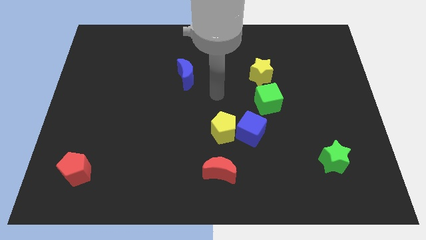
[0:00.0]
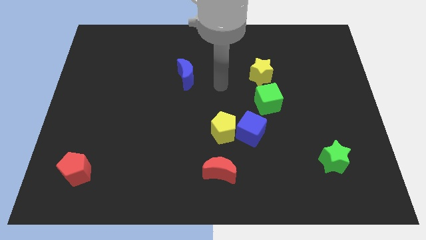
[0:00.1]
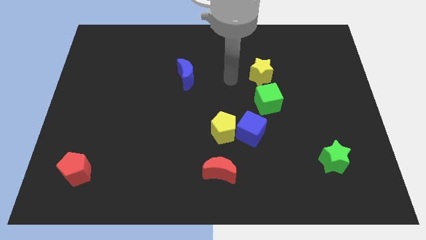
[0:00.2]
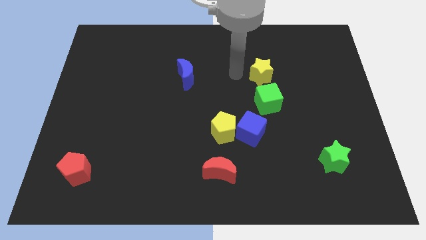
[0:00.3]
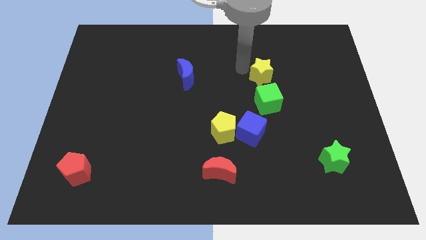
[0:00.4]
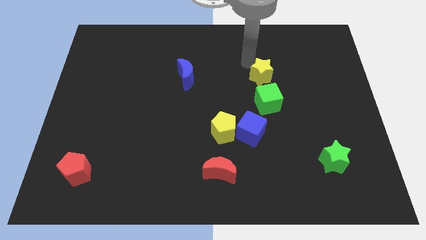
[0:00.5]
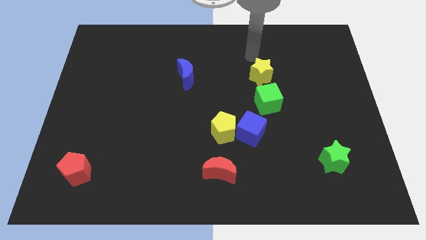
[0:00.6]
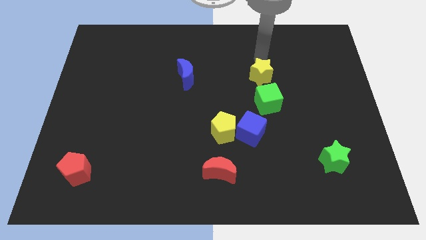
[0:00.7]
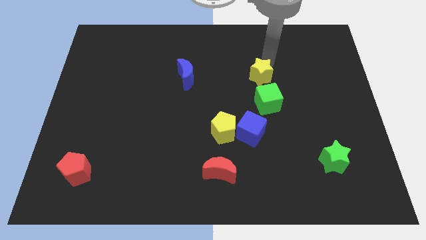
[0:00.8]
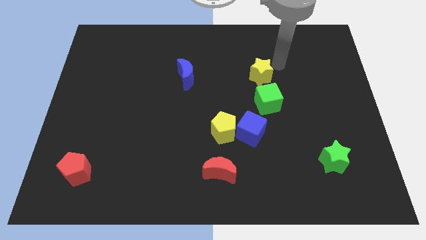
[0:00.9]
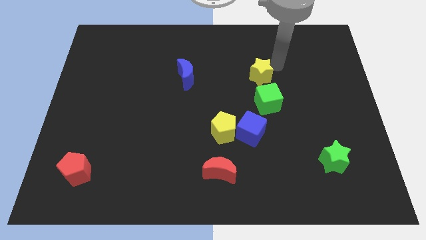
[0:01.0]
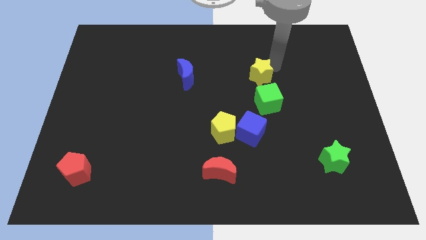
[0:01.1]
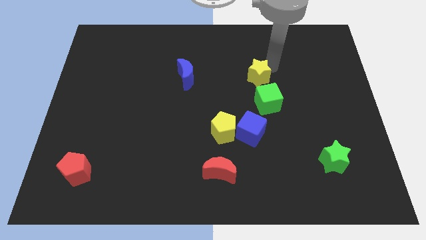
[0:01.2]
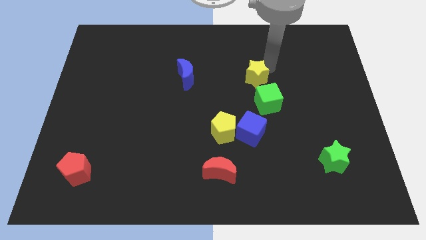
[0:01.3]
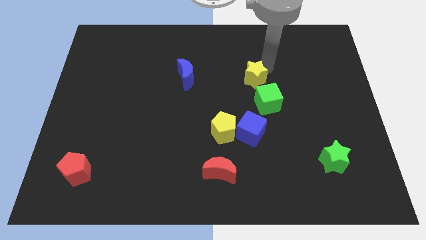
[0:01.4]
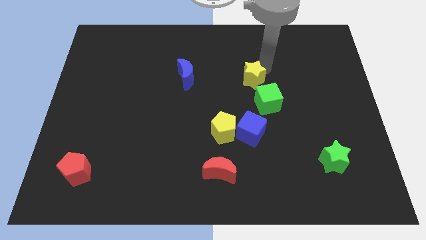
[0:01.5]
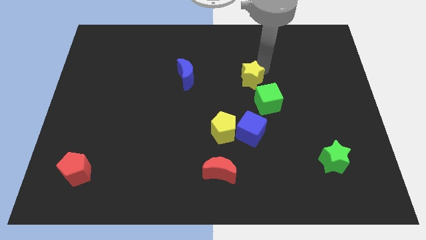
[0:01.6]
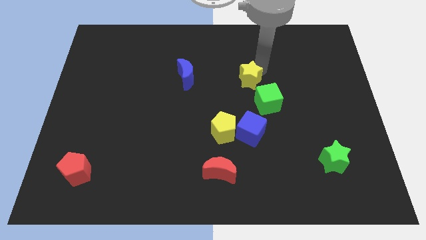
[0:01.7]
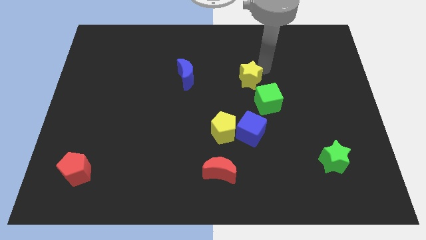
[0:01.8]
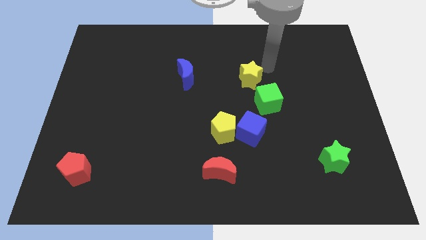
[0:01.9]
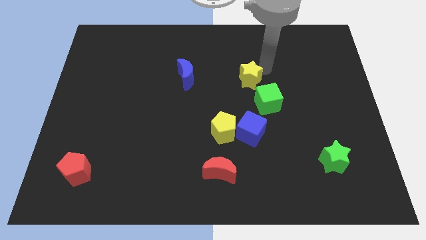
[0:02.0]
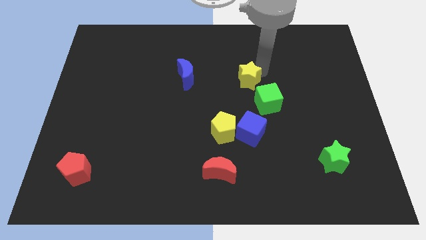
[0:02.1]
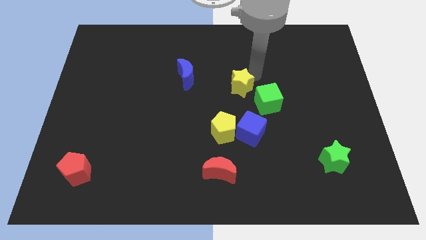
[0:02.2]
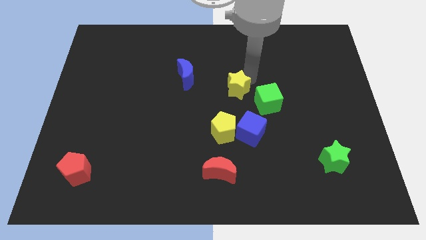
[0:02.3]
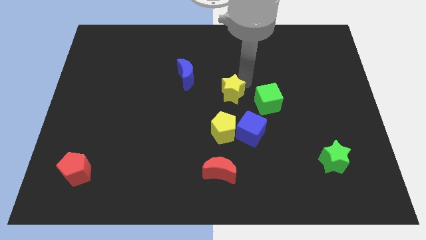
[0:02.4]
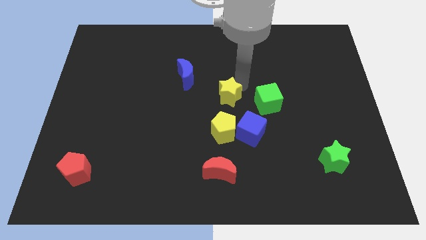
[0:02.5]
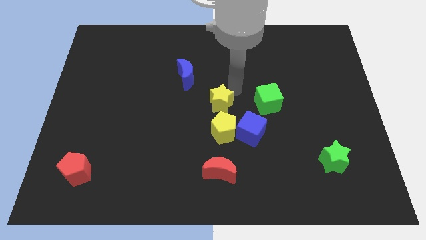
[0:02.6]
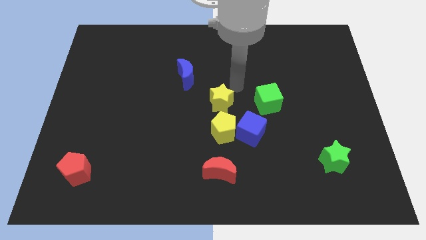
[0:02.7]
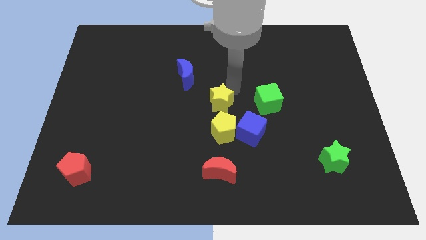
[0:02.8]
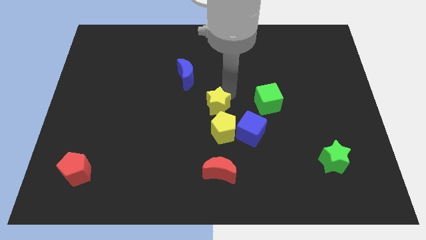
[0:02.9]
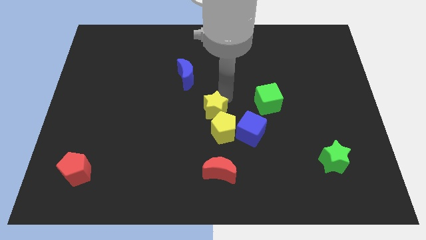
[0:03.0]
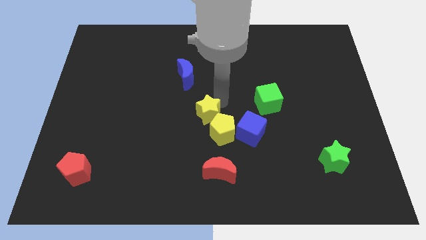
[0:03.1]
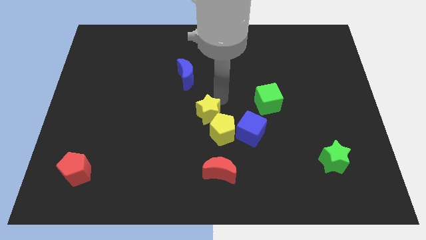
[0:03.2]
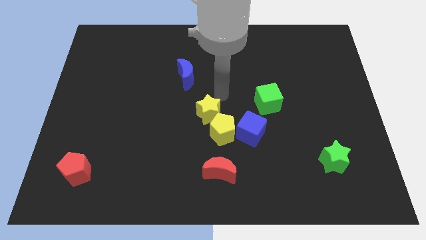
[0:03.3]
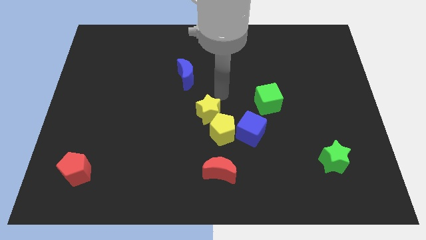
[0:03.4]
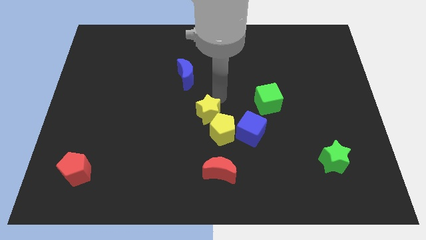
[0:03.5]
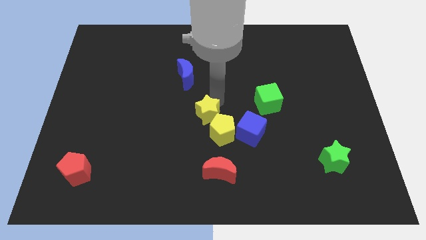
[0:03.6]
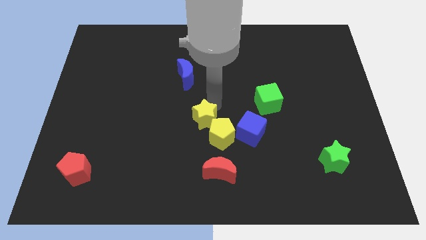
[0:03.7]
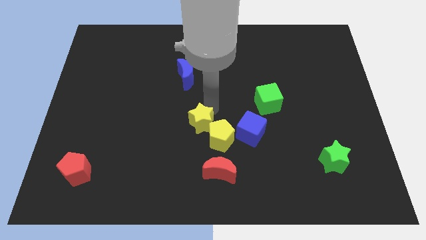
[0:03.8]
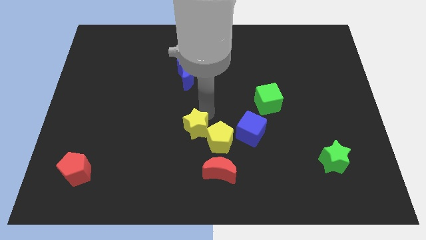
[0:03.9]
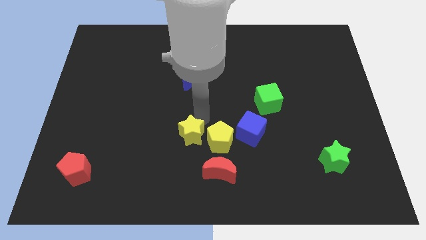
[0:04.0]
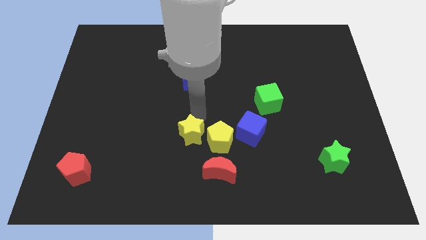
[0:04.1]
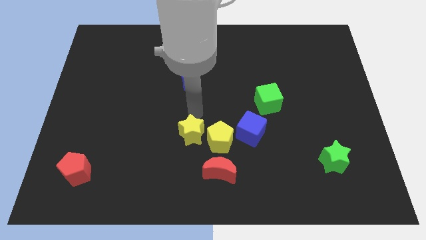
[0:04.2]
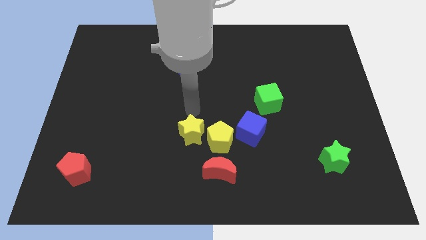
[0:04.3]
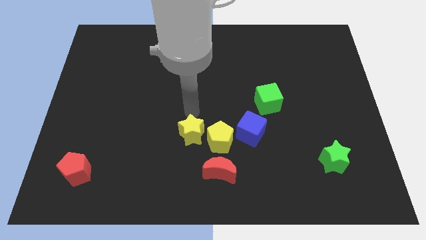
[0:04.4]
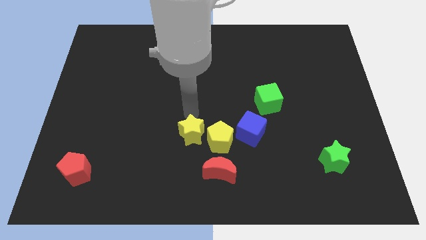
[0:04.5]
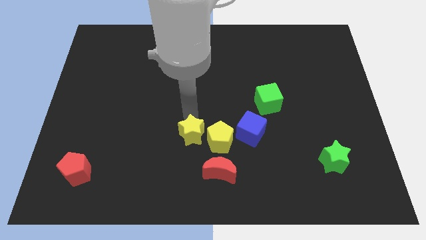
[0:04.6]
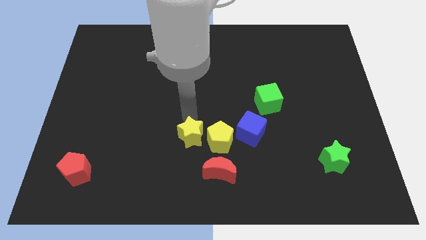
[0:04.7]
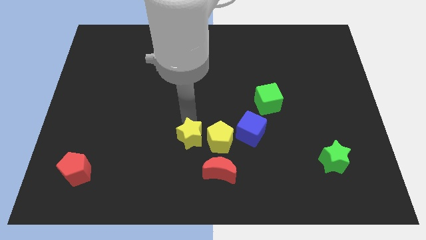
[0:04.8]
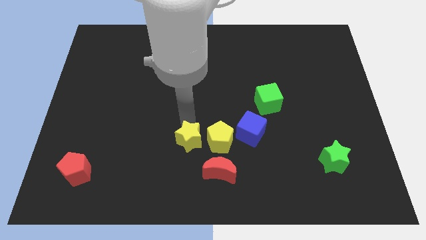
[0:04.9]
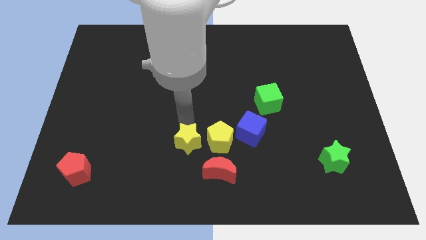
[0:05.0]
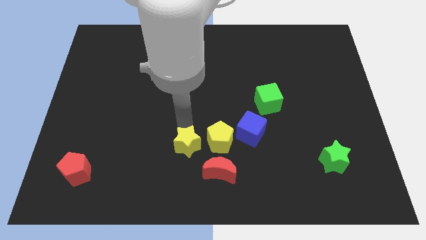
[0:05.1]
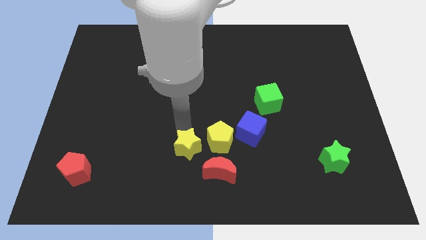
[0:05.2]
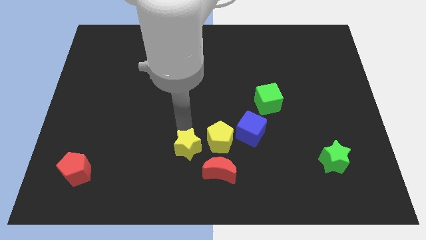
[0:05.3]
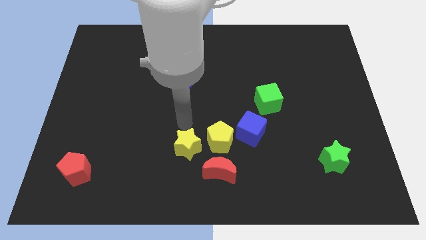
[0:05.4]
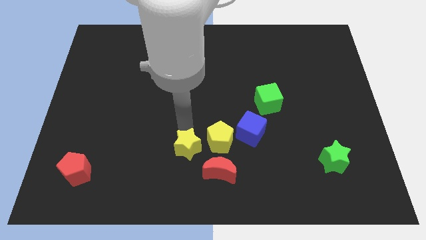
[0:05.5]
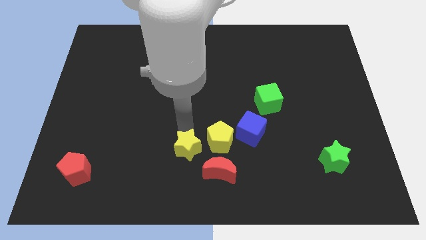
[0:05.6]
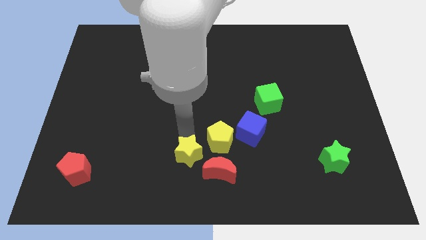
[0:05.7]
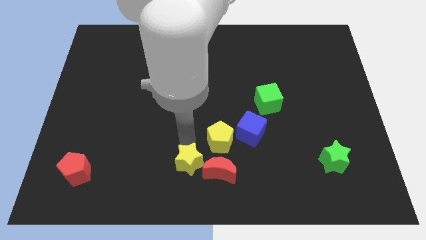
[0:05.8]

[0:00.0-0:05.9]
push the yellow star to the bottom side

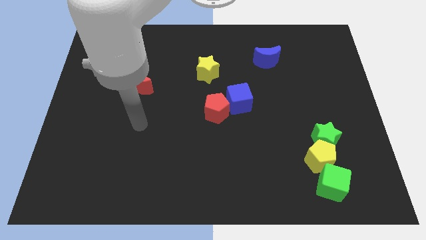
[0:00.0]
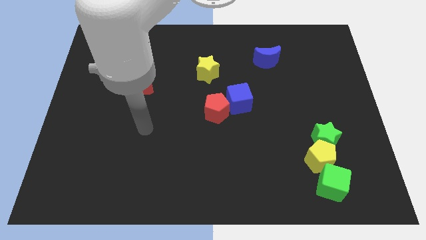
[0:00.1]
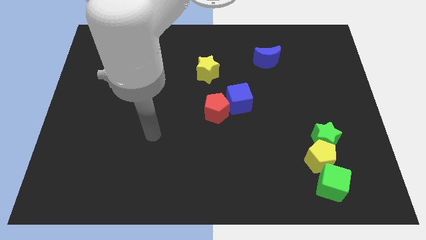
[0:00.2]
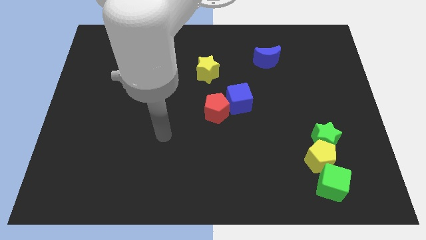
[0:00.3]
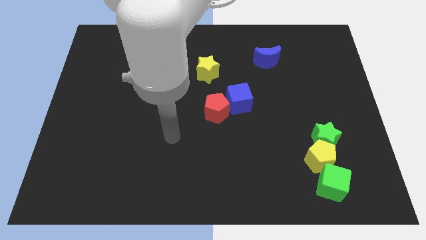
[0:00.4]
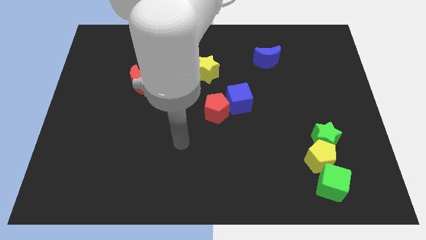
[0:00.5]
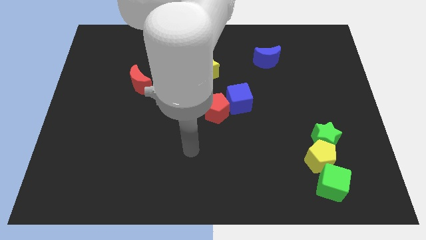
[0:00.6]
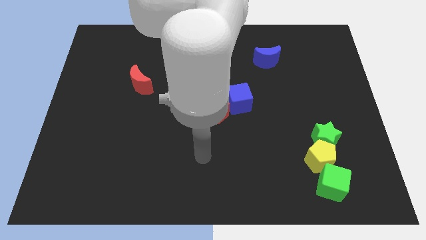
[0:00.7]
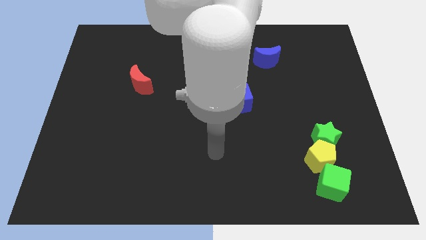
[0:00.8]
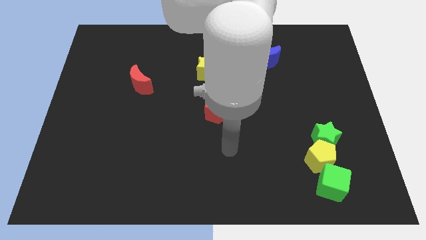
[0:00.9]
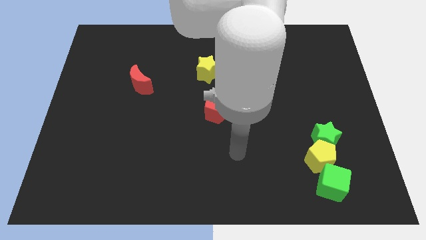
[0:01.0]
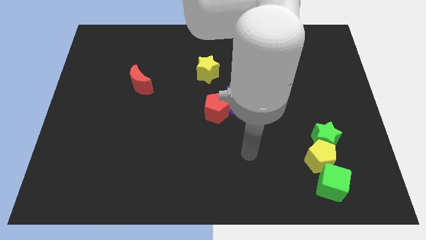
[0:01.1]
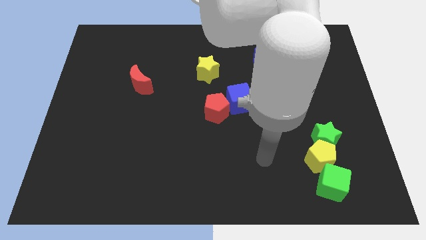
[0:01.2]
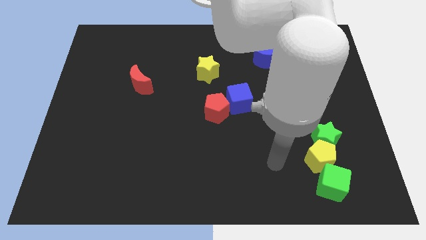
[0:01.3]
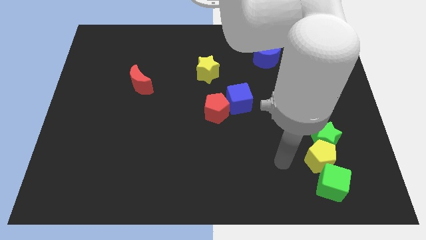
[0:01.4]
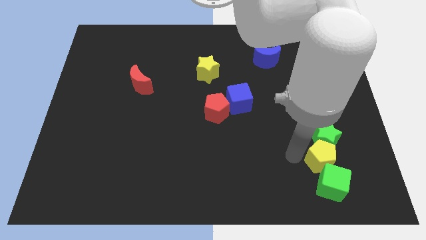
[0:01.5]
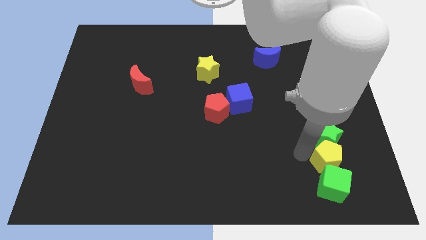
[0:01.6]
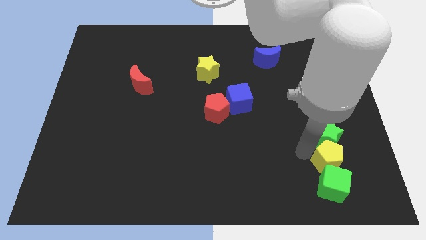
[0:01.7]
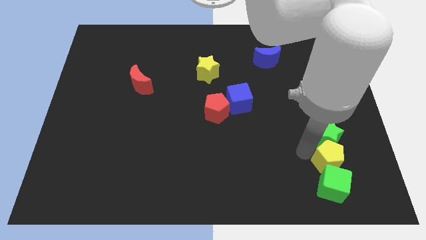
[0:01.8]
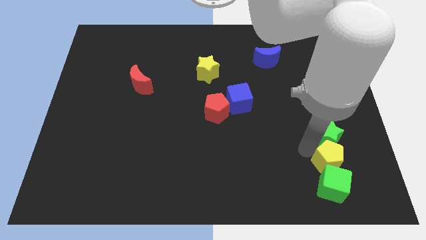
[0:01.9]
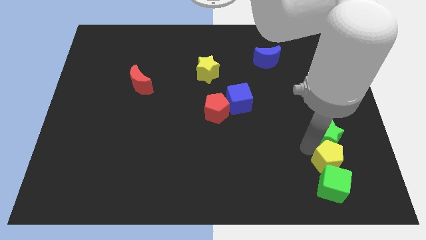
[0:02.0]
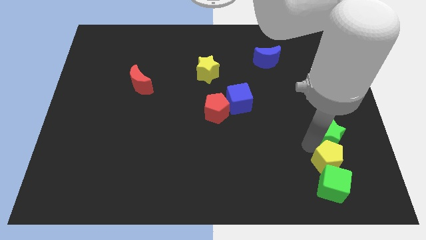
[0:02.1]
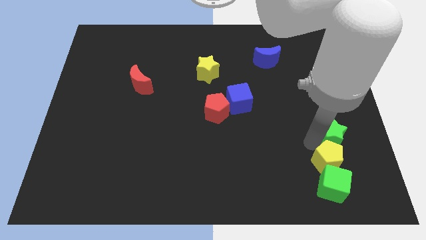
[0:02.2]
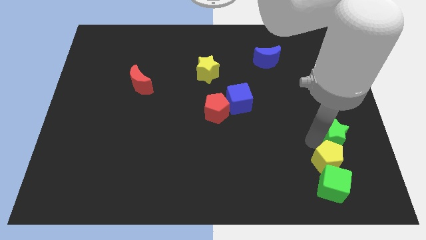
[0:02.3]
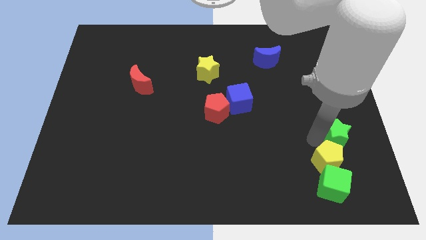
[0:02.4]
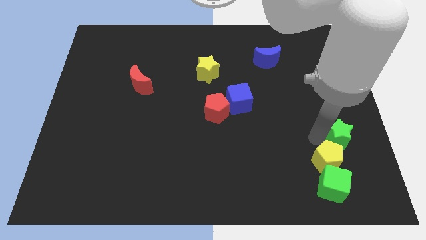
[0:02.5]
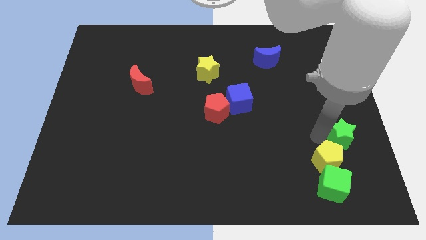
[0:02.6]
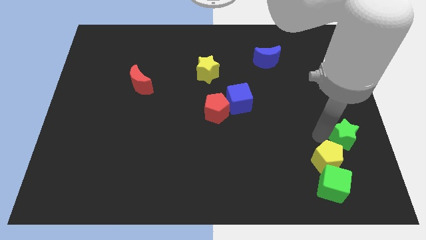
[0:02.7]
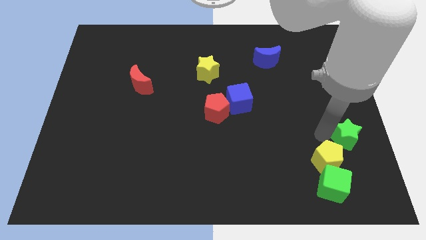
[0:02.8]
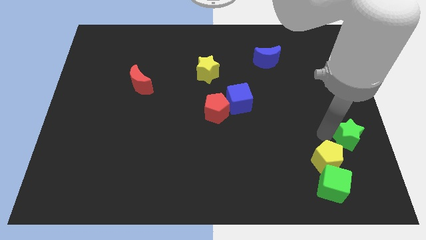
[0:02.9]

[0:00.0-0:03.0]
move the green star to the right side of the board
